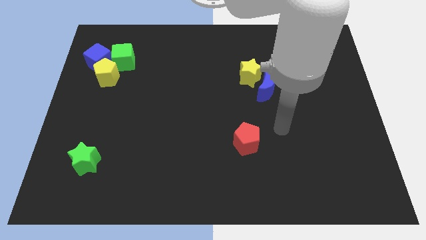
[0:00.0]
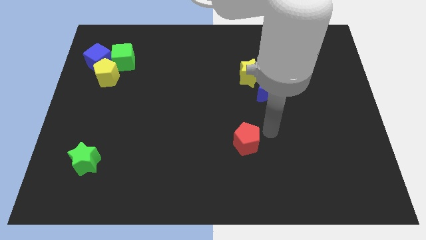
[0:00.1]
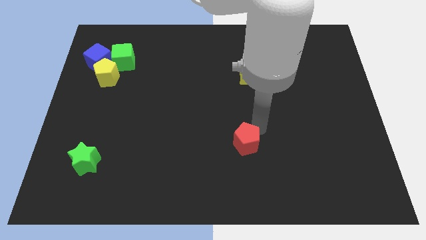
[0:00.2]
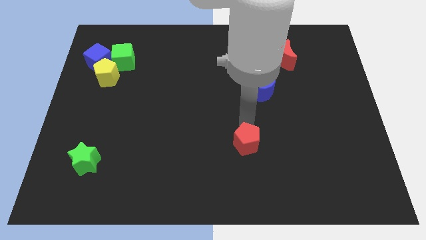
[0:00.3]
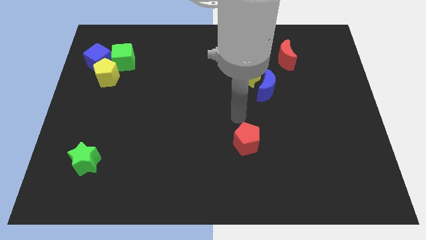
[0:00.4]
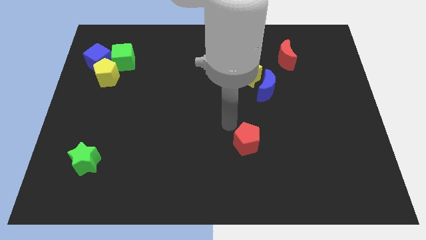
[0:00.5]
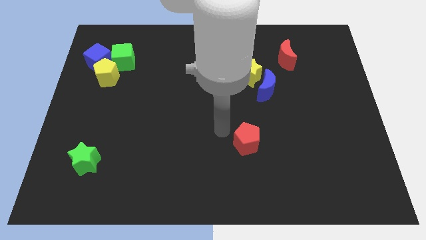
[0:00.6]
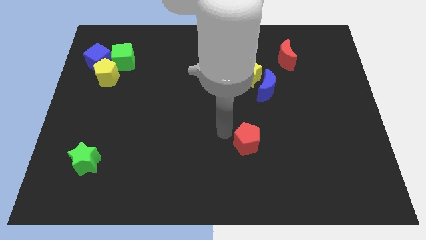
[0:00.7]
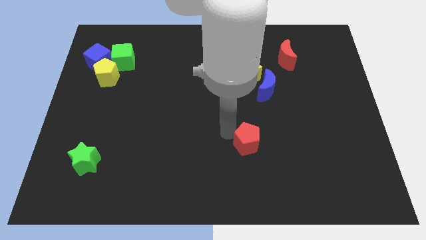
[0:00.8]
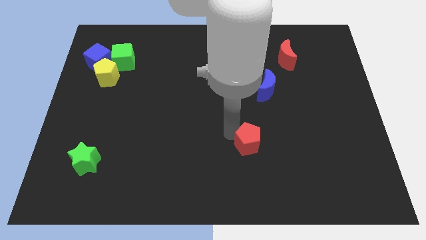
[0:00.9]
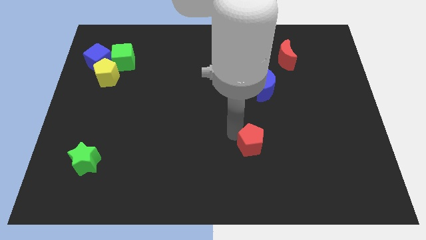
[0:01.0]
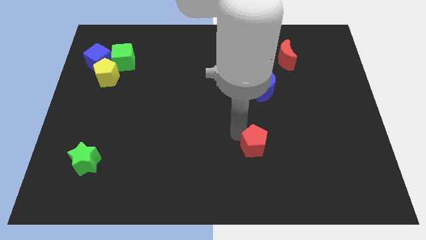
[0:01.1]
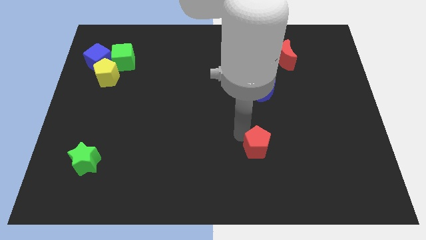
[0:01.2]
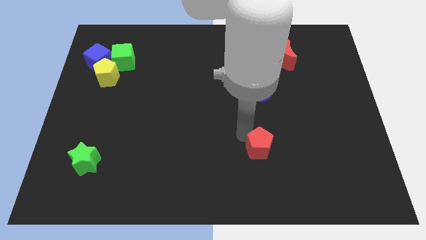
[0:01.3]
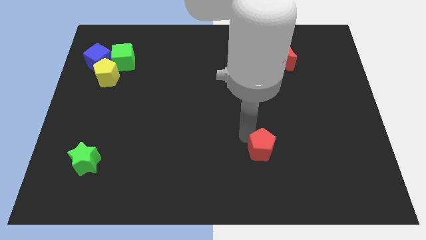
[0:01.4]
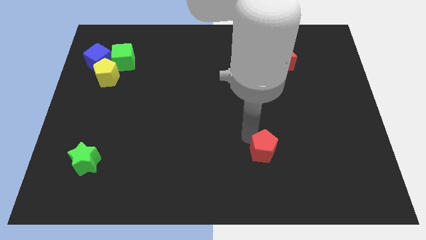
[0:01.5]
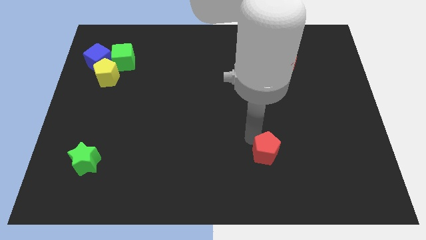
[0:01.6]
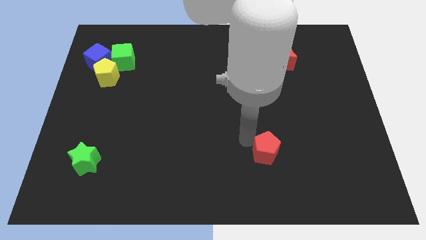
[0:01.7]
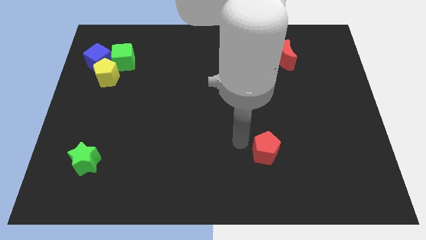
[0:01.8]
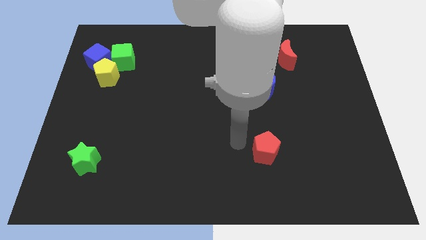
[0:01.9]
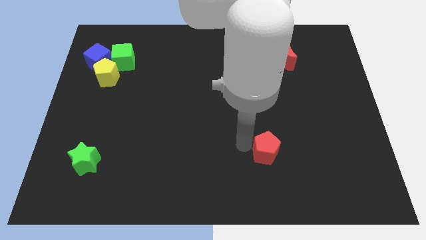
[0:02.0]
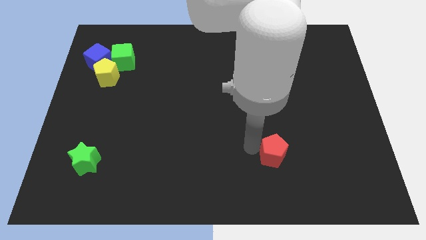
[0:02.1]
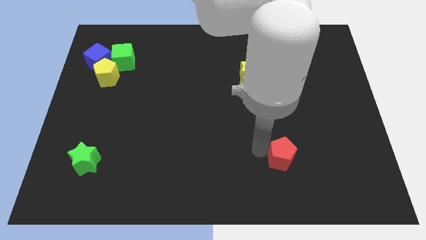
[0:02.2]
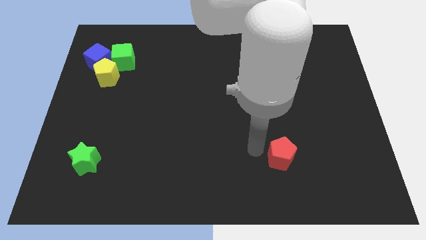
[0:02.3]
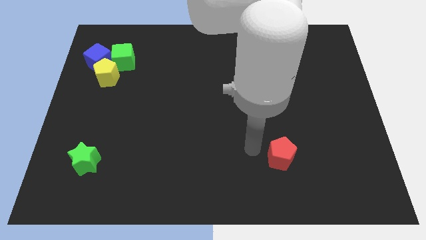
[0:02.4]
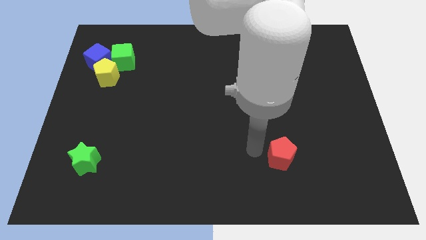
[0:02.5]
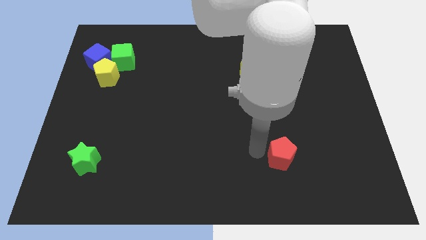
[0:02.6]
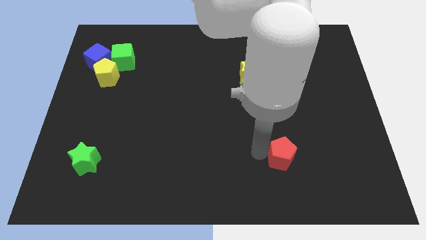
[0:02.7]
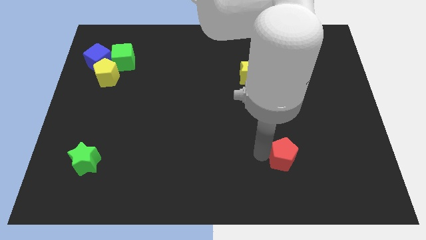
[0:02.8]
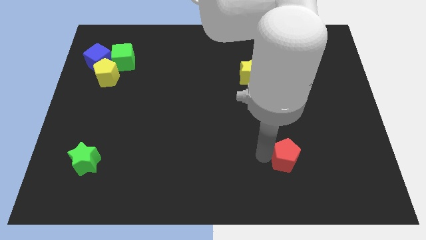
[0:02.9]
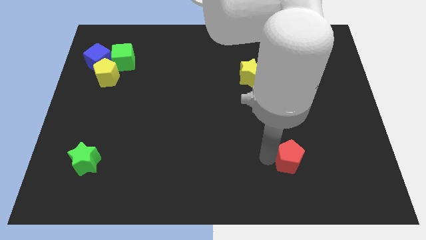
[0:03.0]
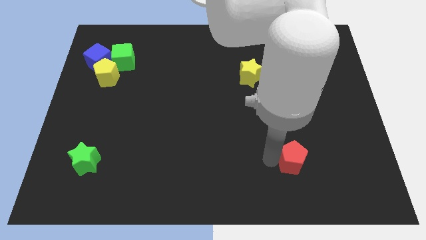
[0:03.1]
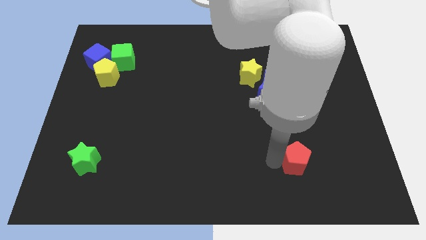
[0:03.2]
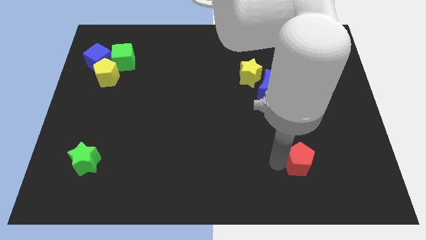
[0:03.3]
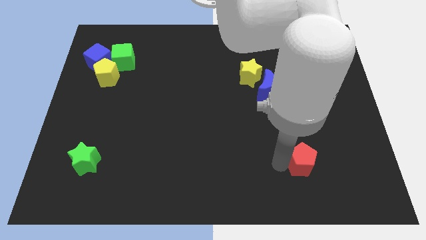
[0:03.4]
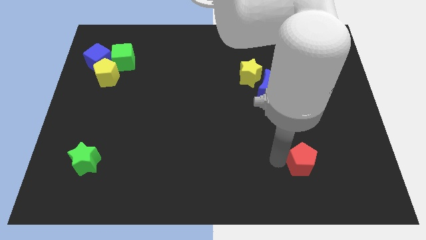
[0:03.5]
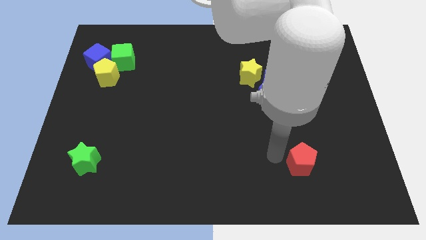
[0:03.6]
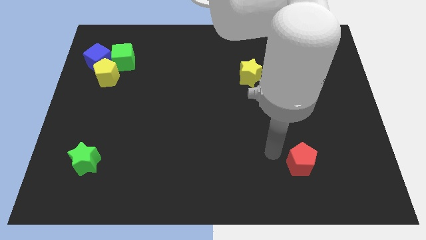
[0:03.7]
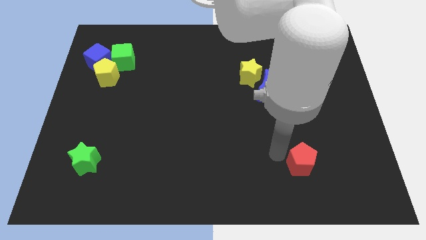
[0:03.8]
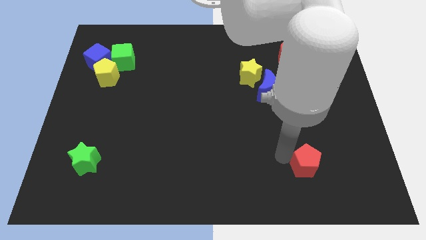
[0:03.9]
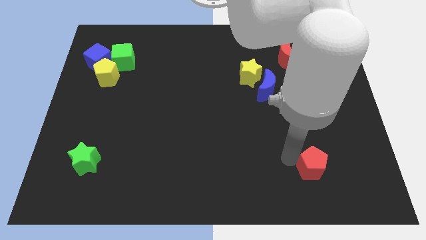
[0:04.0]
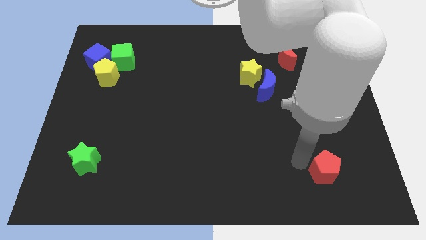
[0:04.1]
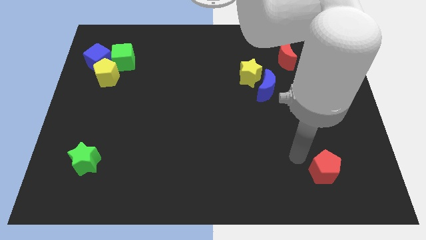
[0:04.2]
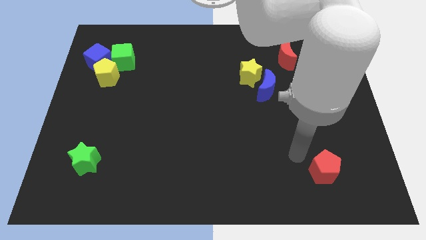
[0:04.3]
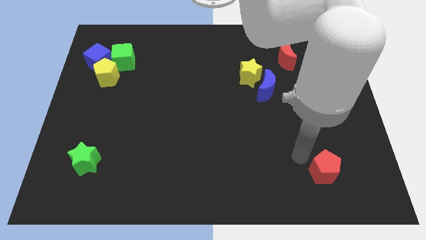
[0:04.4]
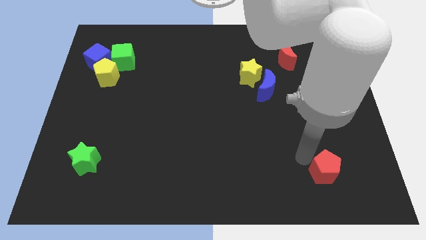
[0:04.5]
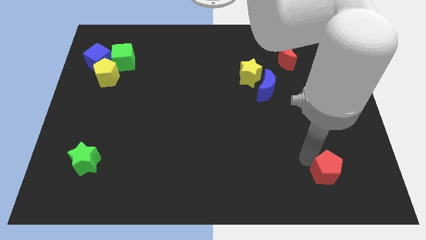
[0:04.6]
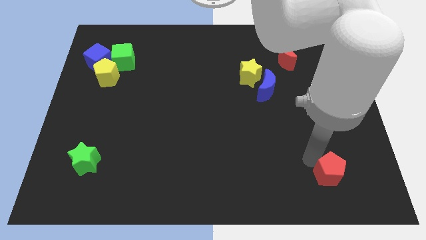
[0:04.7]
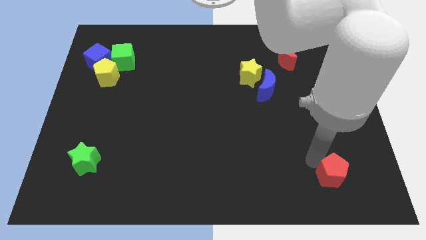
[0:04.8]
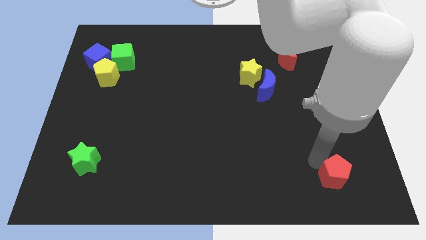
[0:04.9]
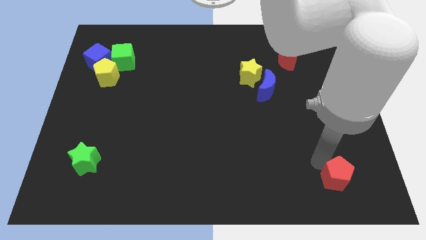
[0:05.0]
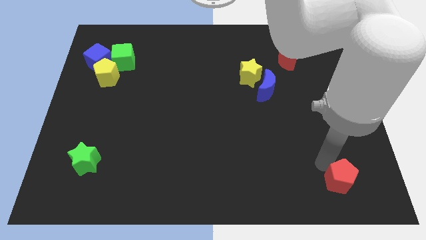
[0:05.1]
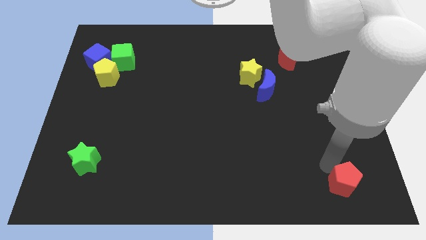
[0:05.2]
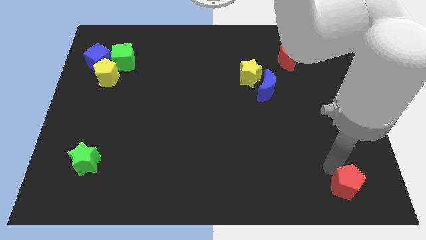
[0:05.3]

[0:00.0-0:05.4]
slide the red pentagon to the bottom right of the board

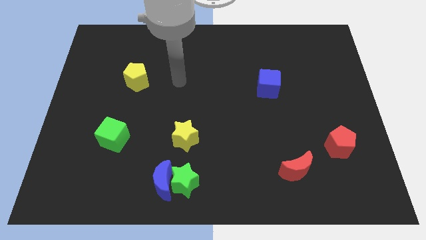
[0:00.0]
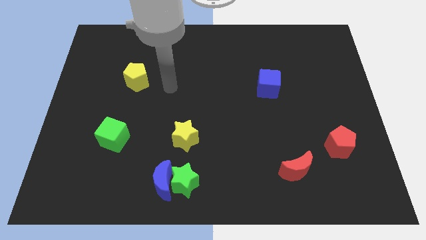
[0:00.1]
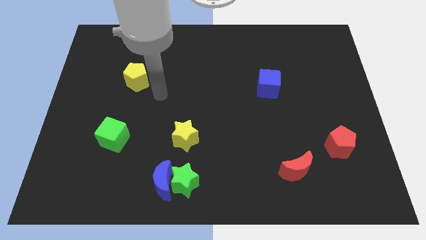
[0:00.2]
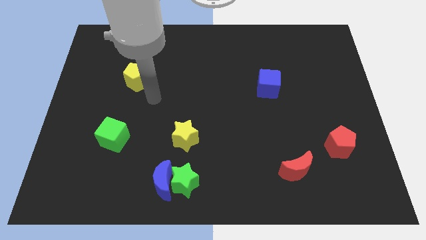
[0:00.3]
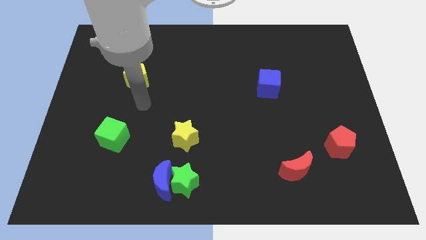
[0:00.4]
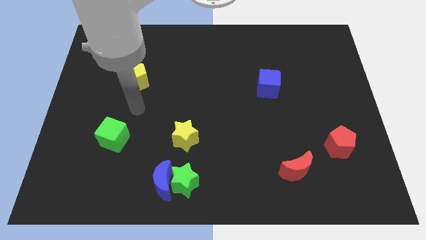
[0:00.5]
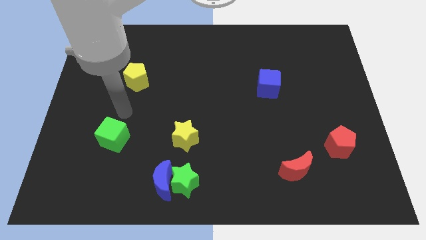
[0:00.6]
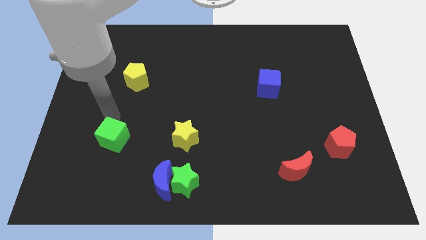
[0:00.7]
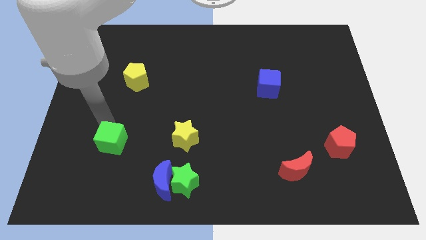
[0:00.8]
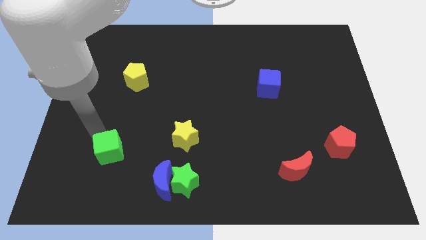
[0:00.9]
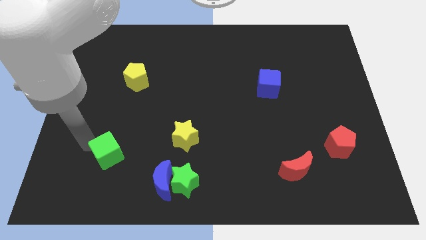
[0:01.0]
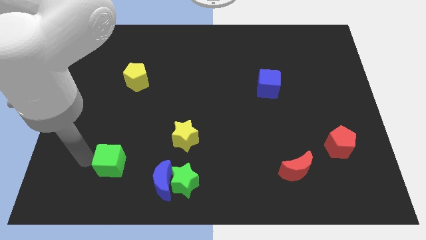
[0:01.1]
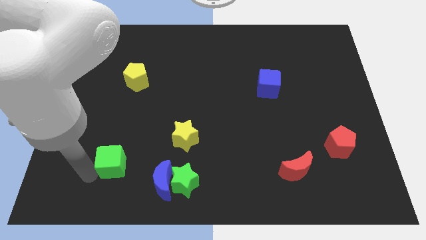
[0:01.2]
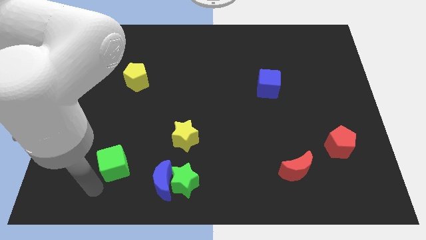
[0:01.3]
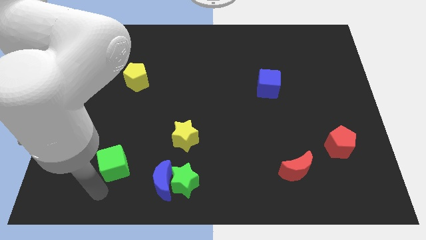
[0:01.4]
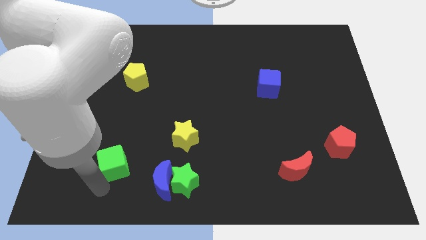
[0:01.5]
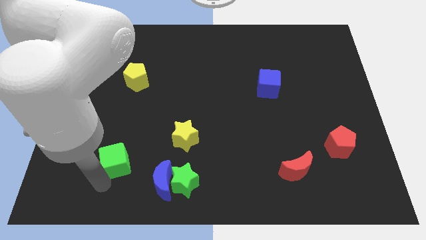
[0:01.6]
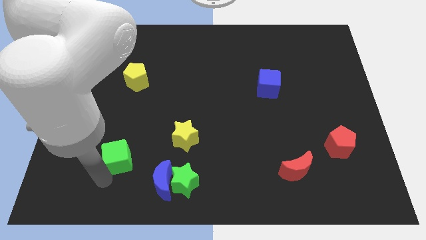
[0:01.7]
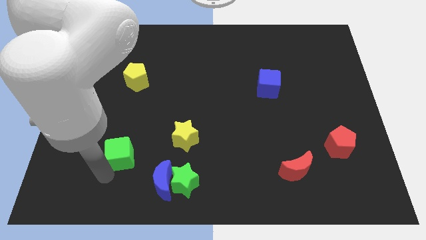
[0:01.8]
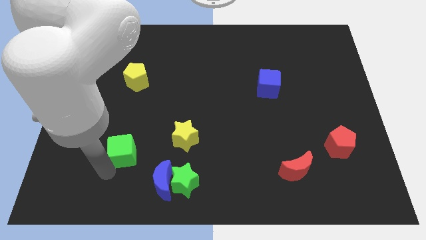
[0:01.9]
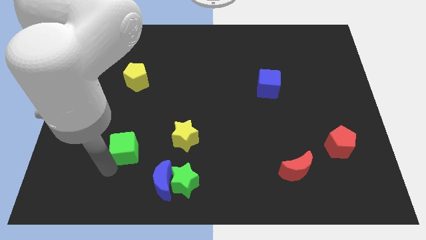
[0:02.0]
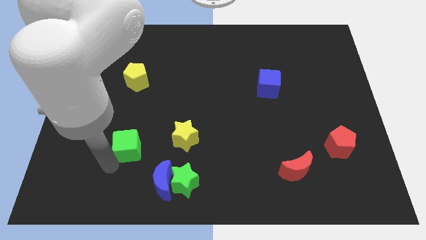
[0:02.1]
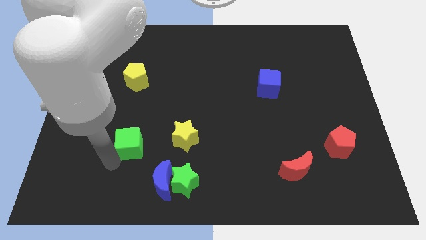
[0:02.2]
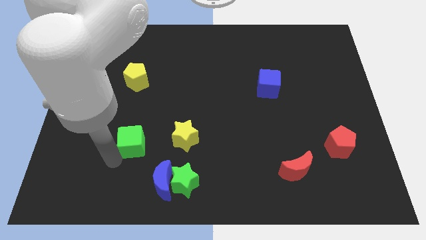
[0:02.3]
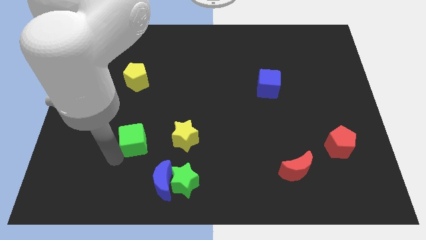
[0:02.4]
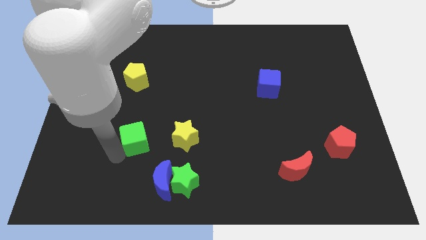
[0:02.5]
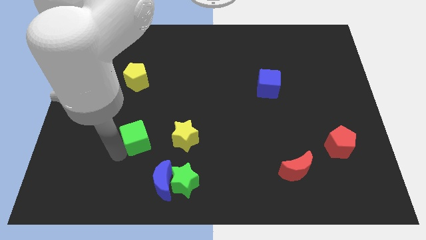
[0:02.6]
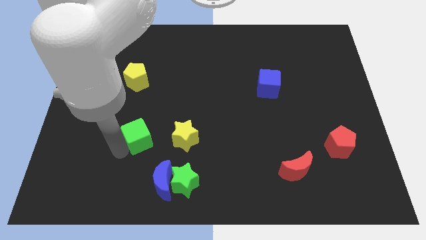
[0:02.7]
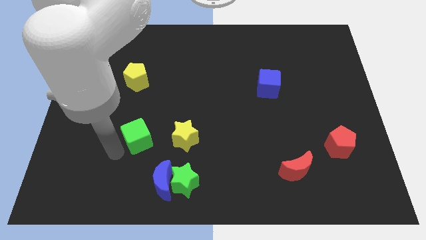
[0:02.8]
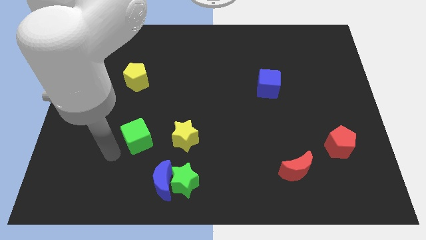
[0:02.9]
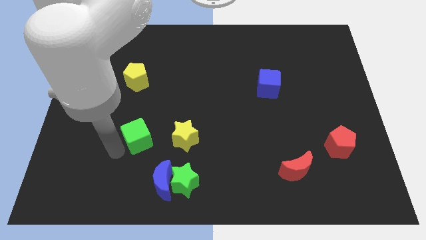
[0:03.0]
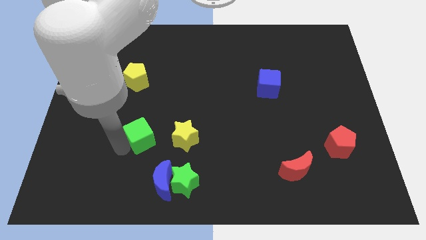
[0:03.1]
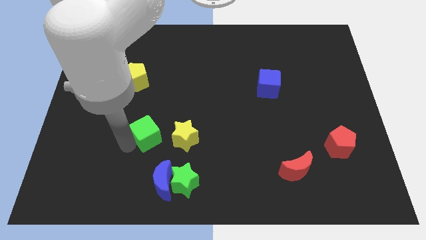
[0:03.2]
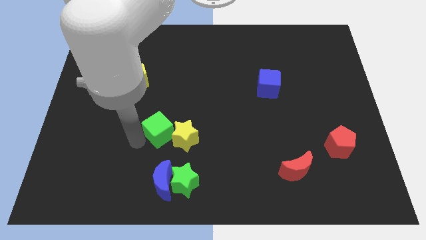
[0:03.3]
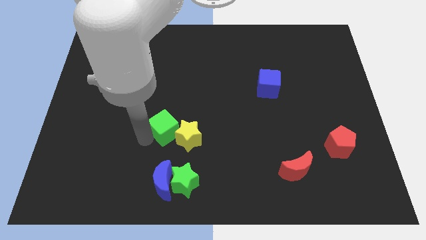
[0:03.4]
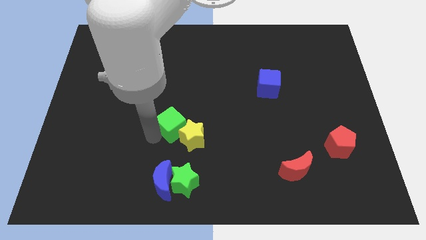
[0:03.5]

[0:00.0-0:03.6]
put the green cube to the middle of the board
